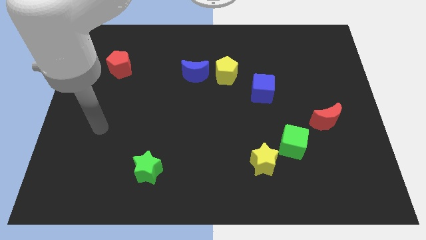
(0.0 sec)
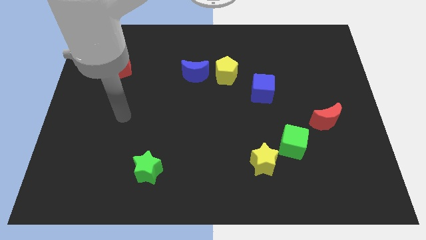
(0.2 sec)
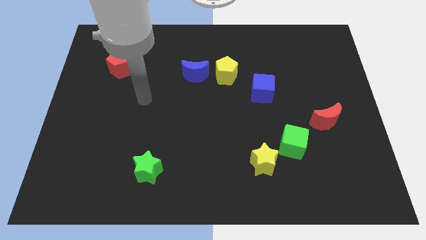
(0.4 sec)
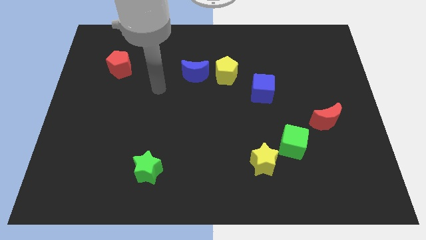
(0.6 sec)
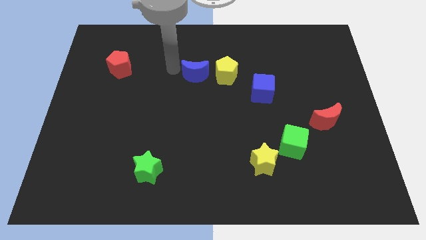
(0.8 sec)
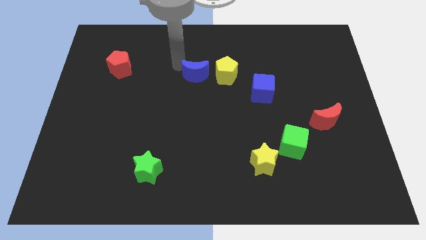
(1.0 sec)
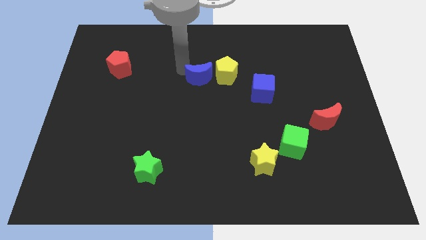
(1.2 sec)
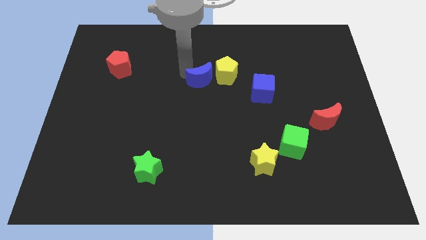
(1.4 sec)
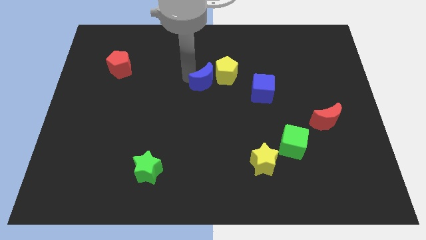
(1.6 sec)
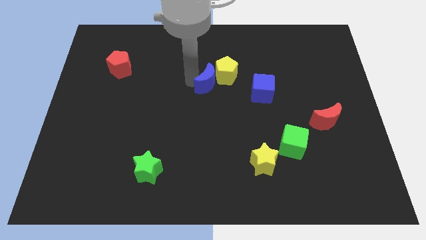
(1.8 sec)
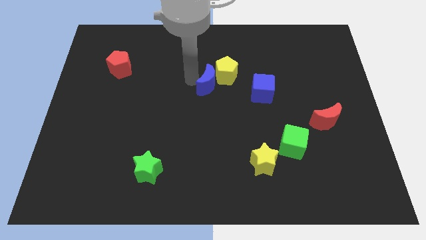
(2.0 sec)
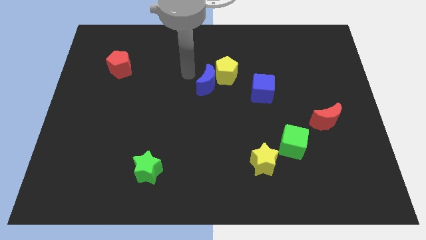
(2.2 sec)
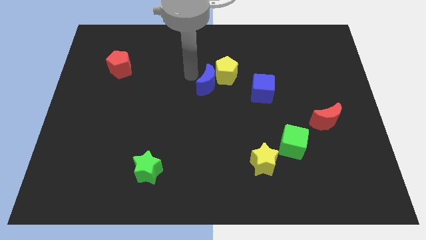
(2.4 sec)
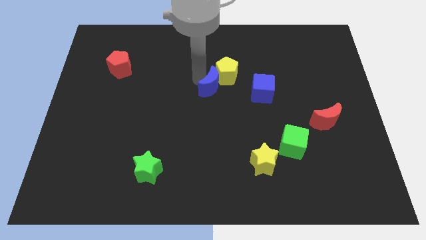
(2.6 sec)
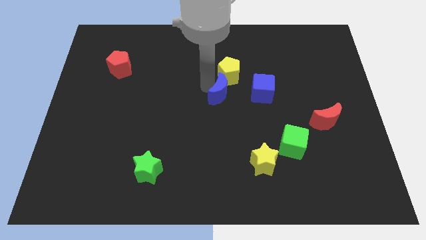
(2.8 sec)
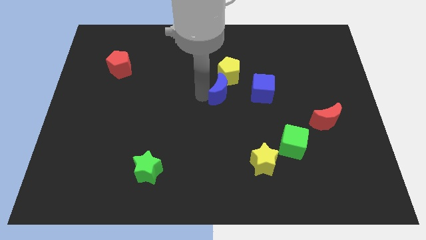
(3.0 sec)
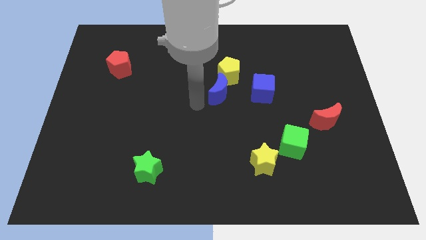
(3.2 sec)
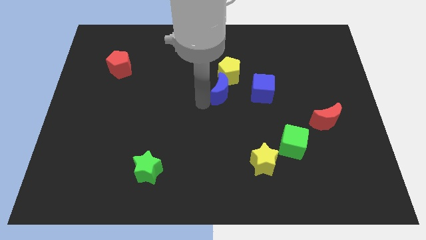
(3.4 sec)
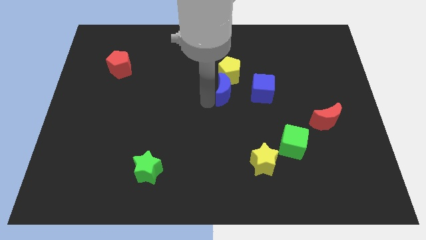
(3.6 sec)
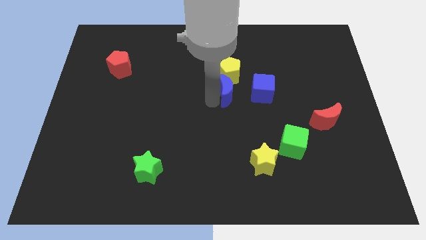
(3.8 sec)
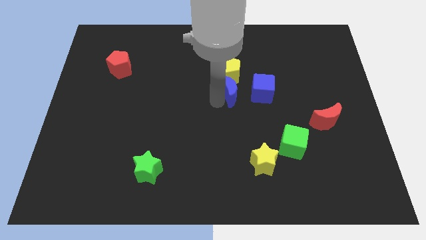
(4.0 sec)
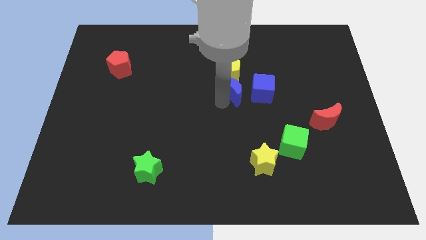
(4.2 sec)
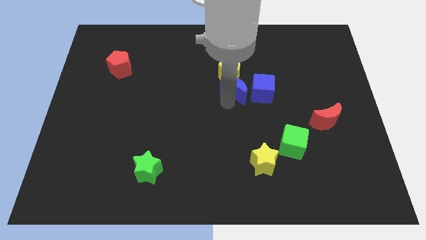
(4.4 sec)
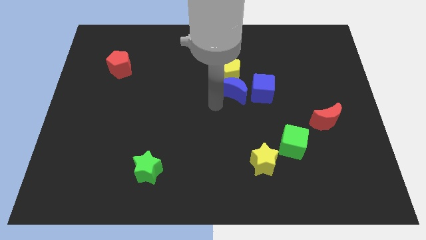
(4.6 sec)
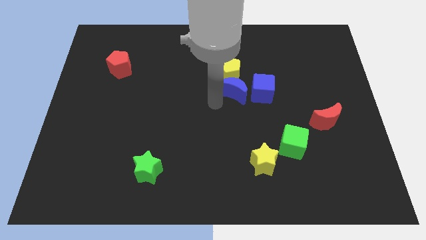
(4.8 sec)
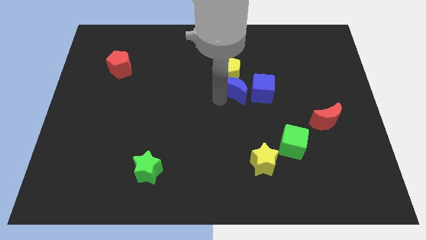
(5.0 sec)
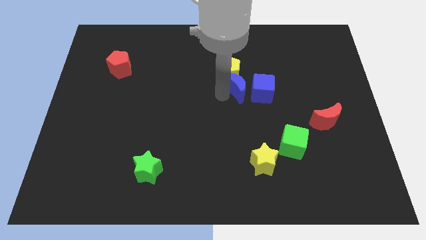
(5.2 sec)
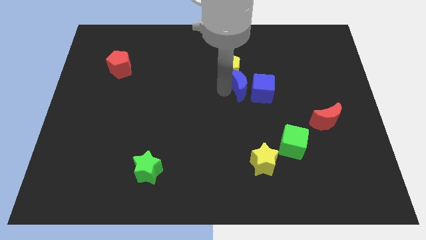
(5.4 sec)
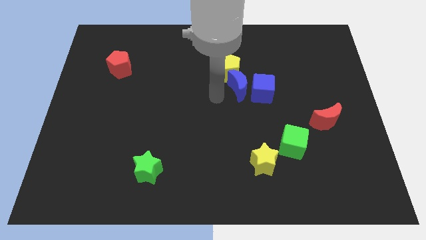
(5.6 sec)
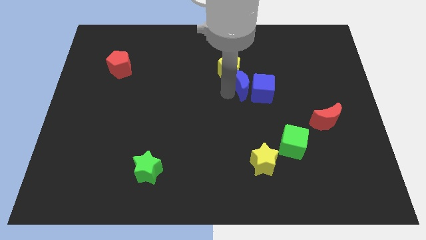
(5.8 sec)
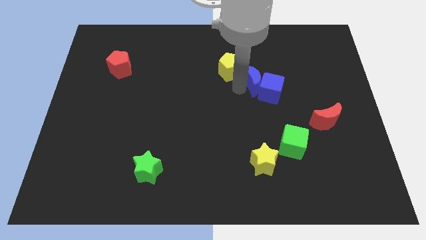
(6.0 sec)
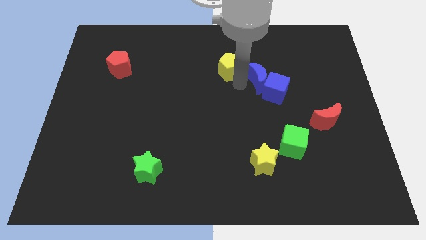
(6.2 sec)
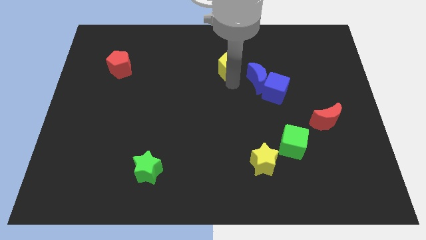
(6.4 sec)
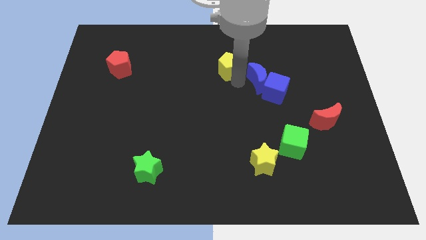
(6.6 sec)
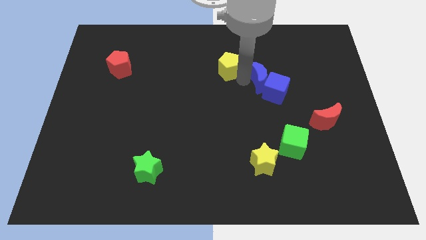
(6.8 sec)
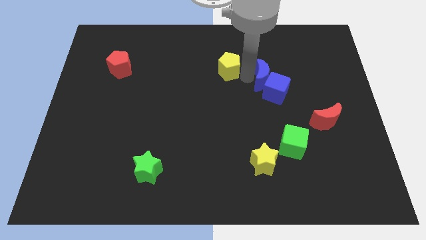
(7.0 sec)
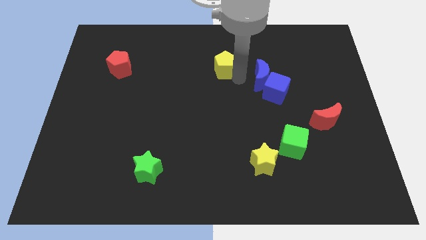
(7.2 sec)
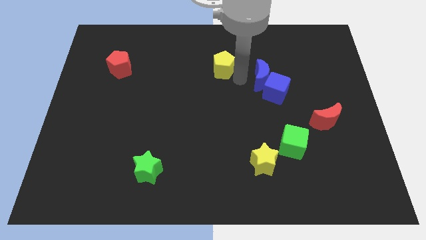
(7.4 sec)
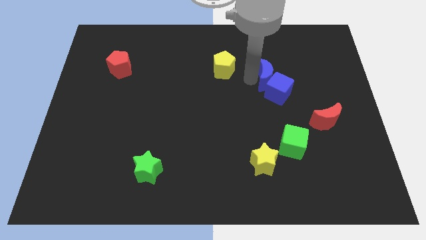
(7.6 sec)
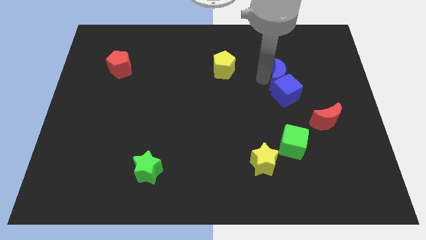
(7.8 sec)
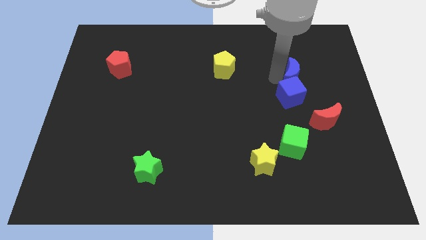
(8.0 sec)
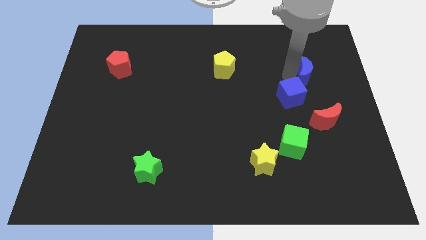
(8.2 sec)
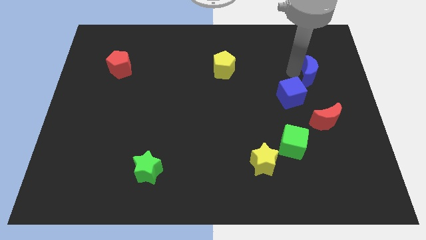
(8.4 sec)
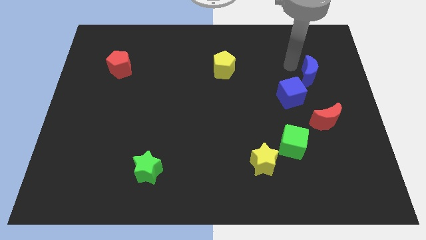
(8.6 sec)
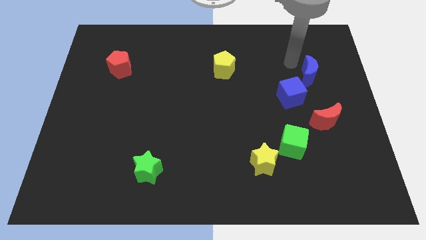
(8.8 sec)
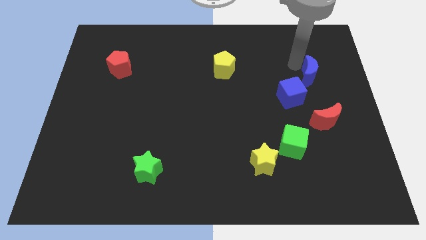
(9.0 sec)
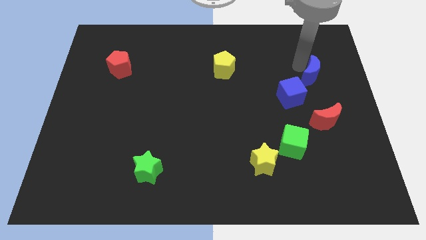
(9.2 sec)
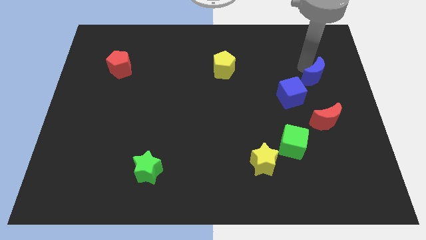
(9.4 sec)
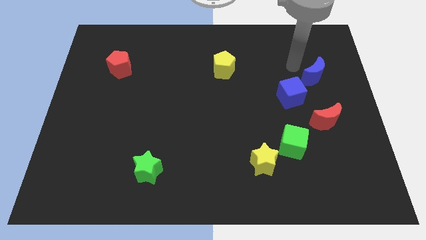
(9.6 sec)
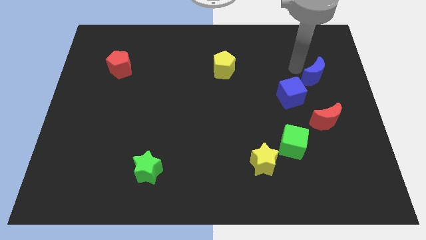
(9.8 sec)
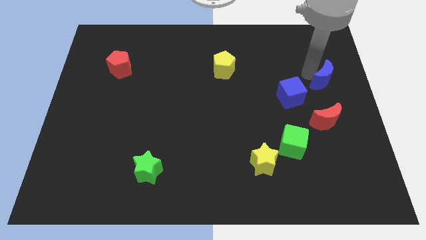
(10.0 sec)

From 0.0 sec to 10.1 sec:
put the blue moon to the right side

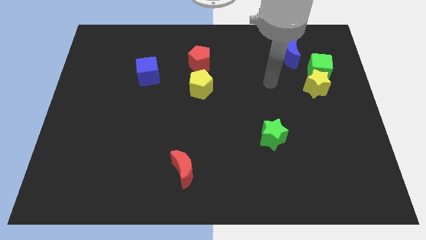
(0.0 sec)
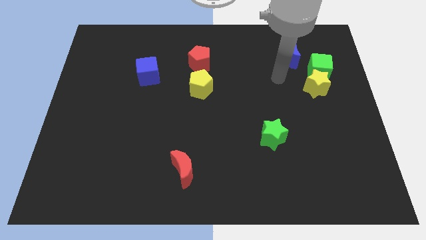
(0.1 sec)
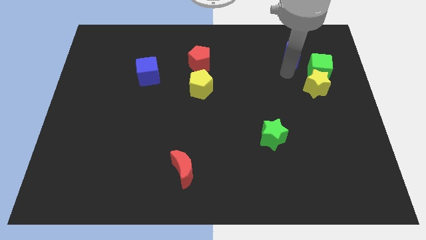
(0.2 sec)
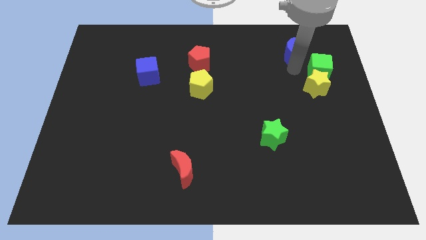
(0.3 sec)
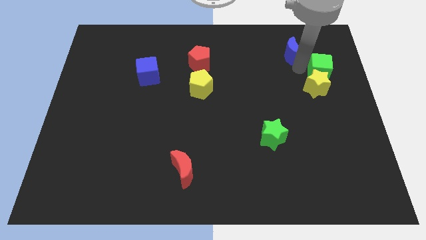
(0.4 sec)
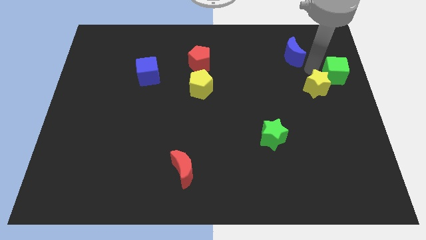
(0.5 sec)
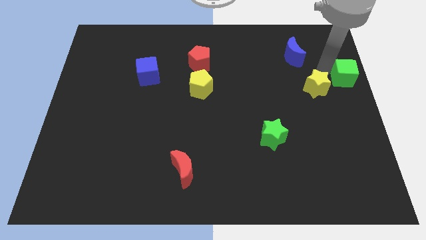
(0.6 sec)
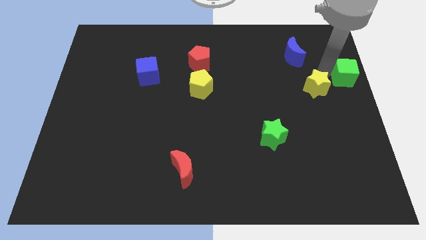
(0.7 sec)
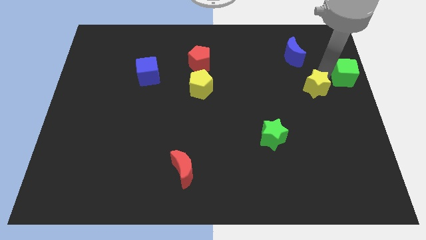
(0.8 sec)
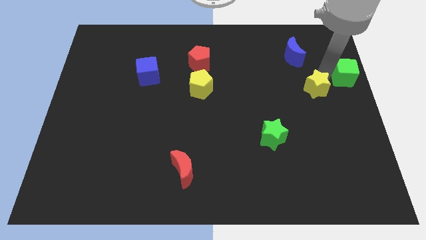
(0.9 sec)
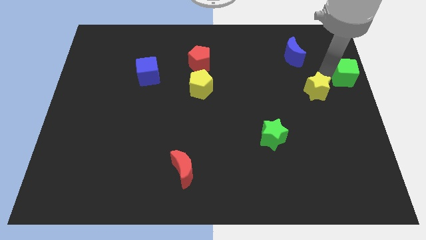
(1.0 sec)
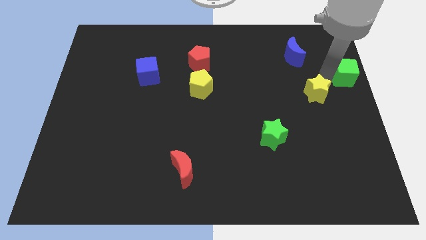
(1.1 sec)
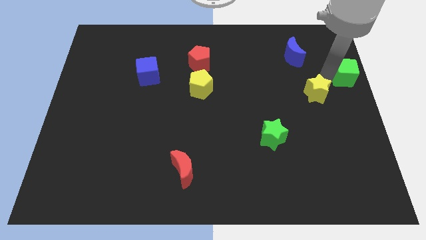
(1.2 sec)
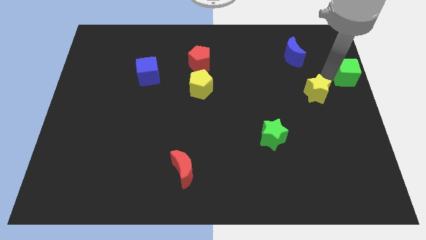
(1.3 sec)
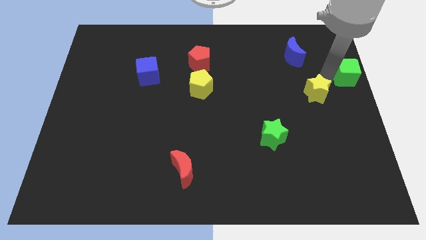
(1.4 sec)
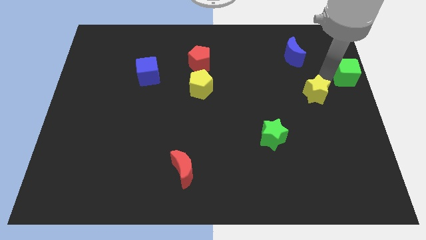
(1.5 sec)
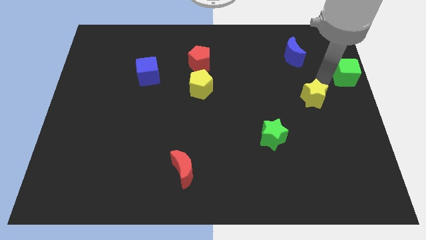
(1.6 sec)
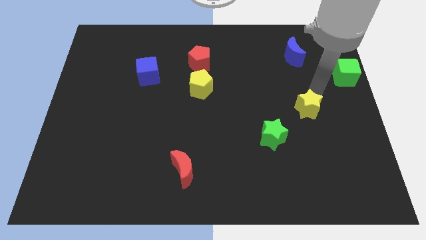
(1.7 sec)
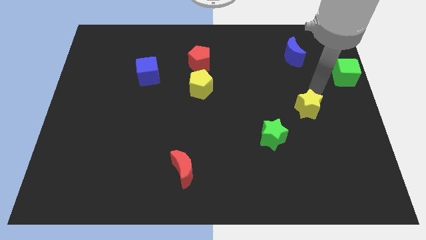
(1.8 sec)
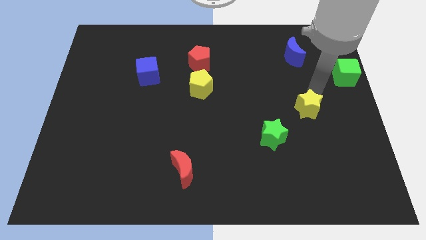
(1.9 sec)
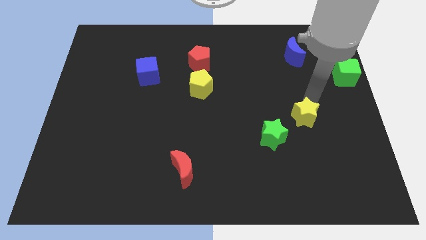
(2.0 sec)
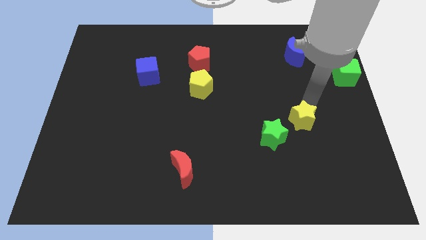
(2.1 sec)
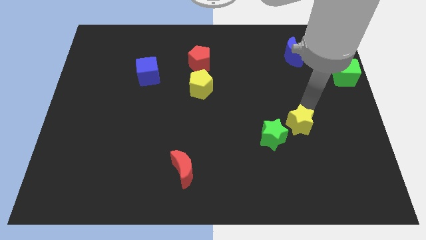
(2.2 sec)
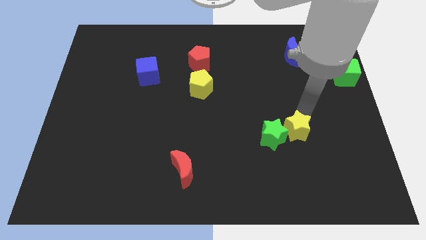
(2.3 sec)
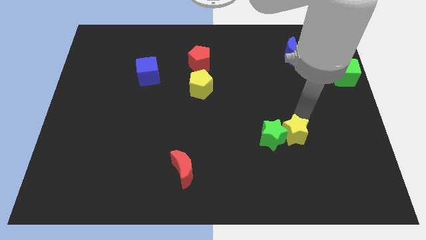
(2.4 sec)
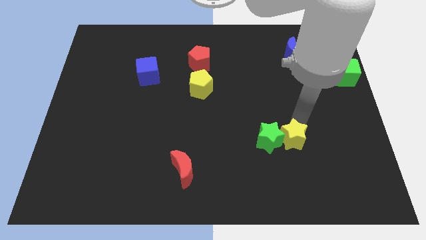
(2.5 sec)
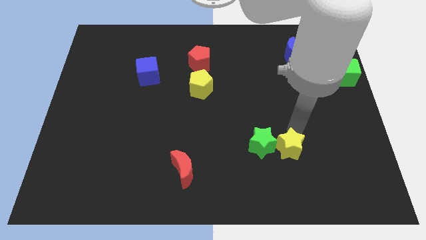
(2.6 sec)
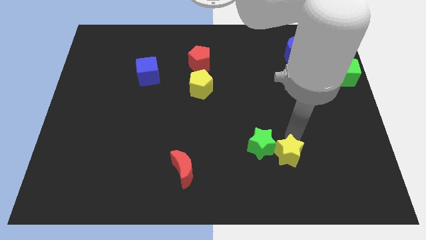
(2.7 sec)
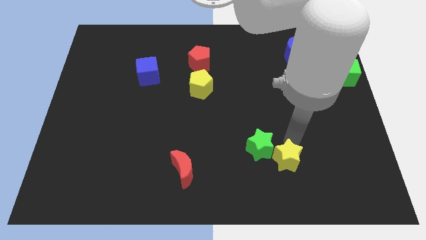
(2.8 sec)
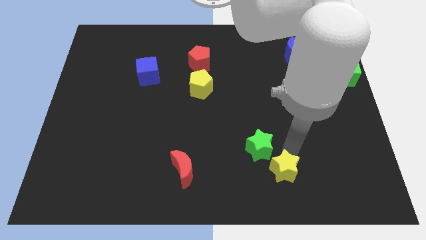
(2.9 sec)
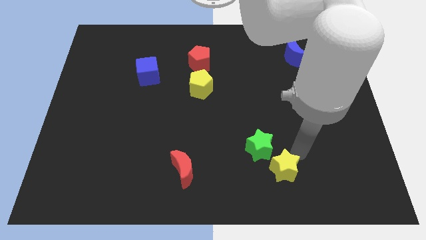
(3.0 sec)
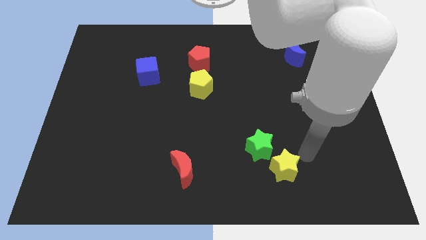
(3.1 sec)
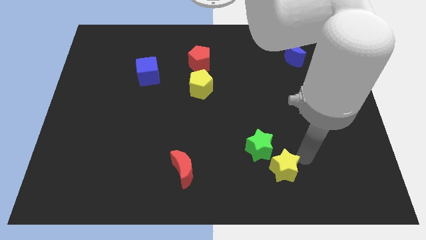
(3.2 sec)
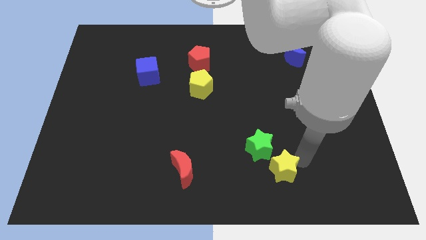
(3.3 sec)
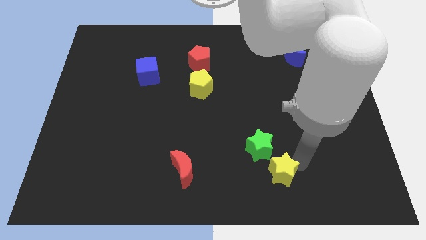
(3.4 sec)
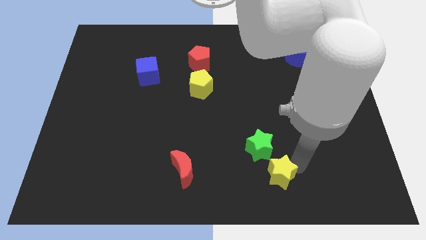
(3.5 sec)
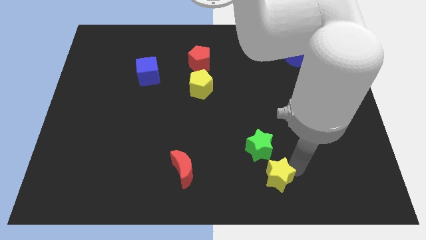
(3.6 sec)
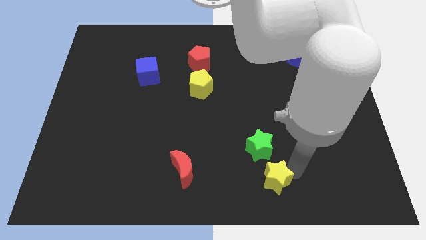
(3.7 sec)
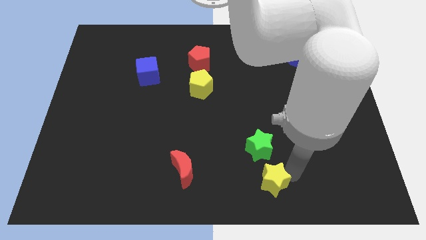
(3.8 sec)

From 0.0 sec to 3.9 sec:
push the yellow star to the bottom
